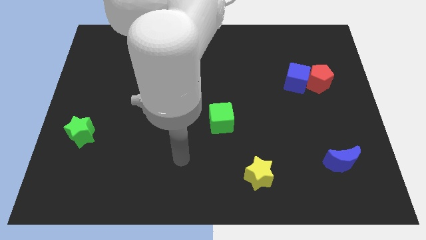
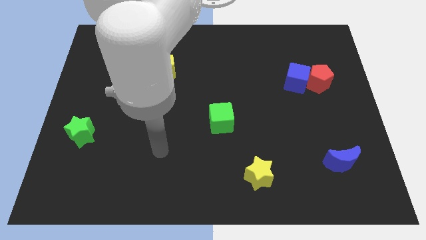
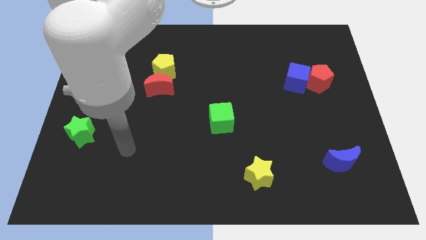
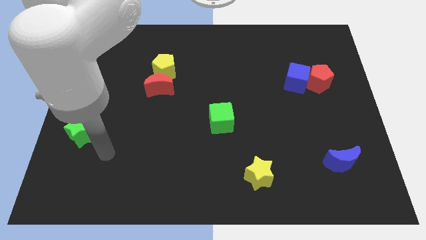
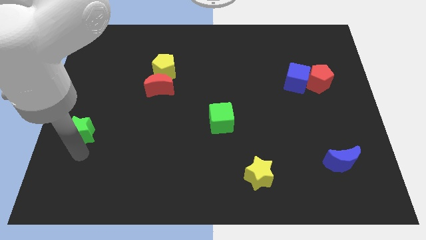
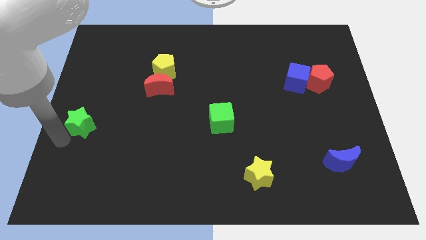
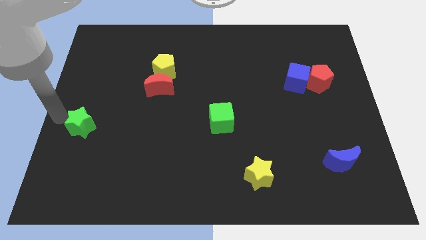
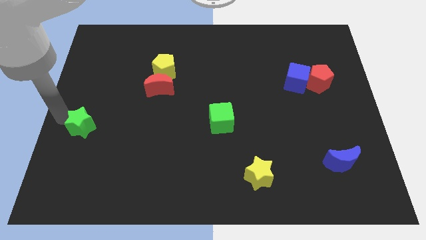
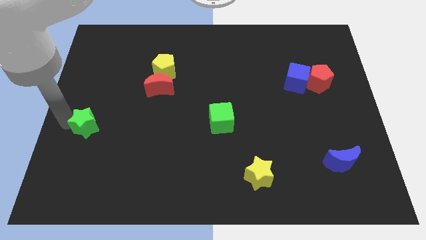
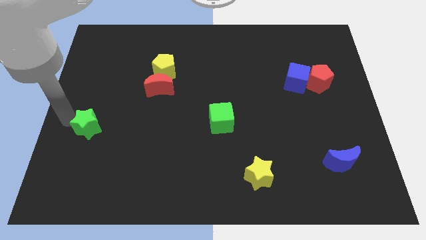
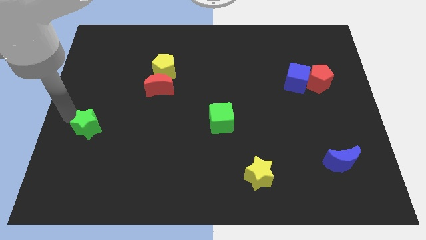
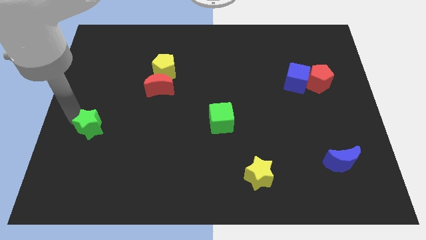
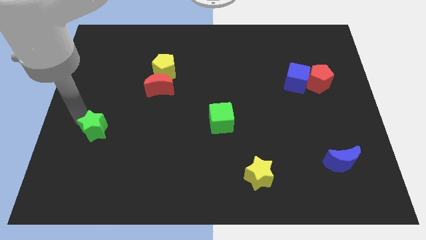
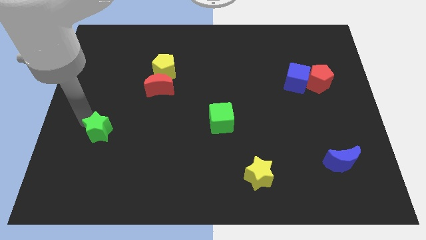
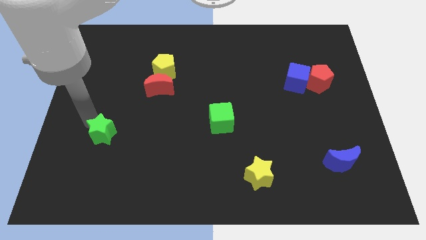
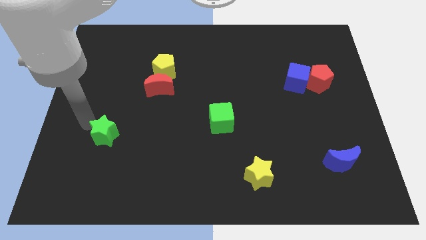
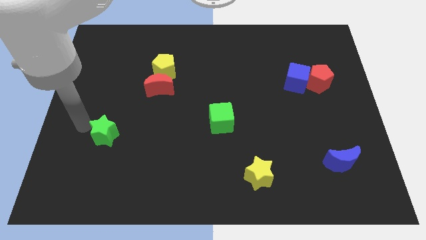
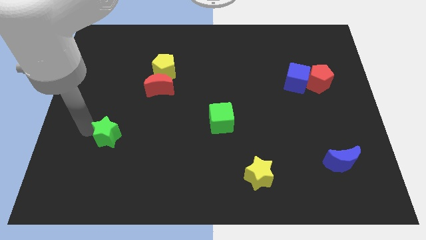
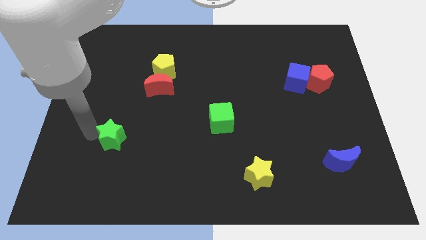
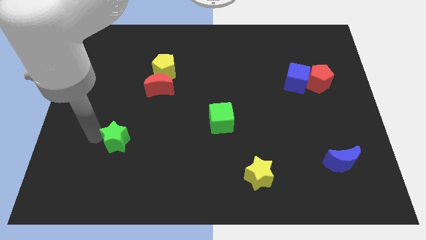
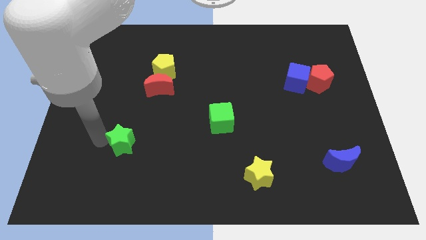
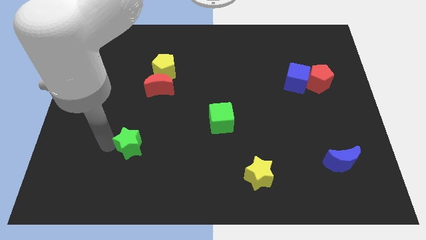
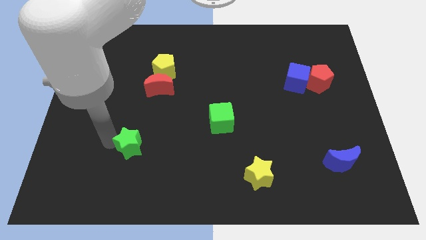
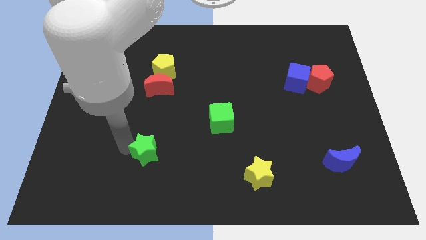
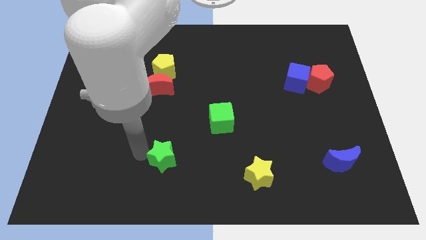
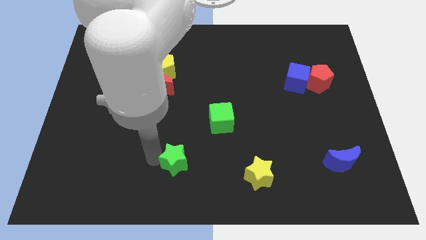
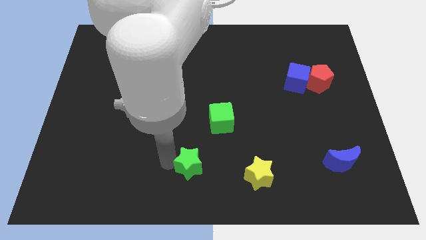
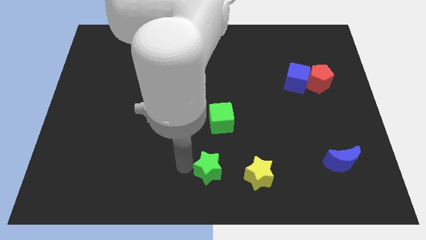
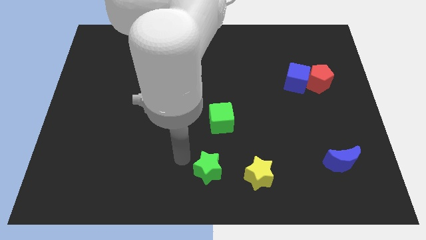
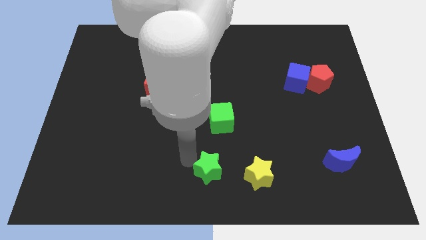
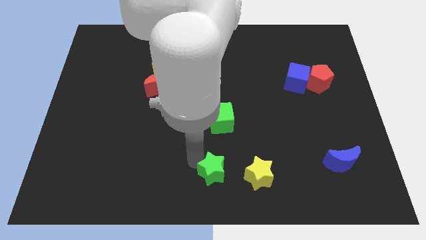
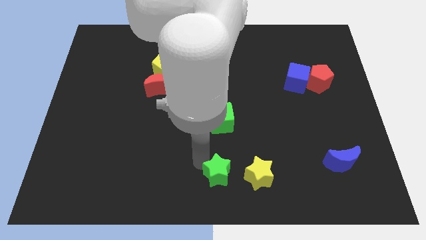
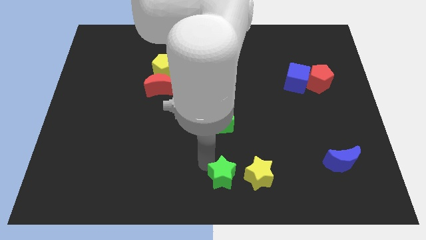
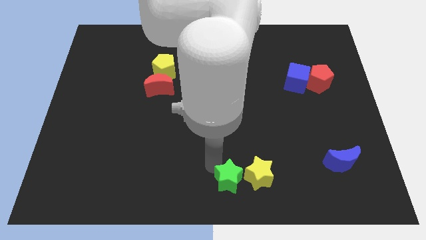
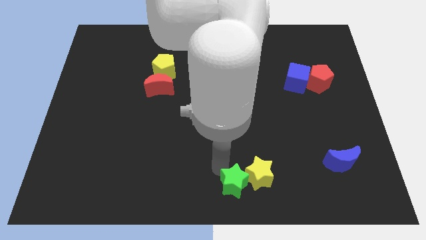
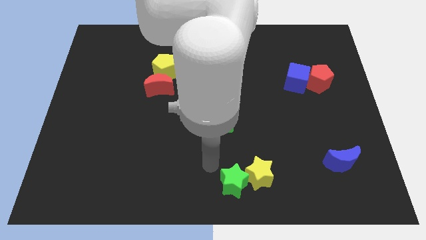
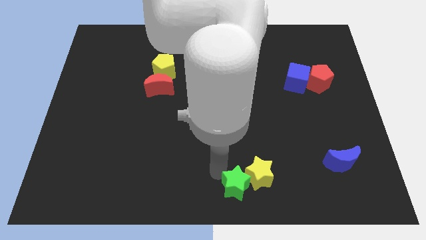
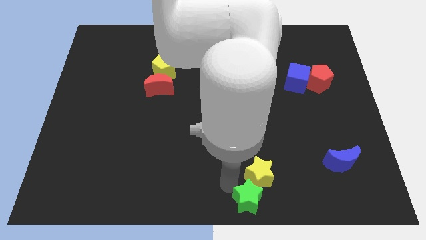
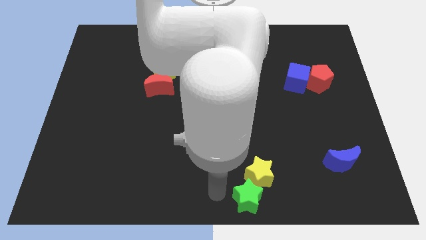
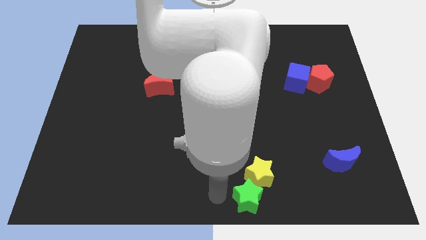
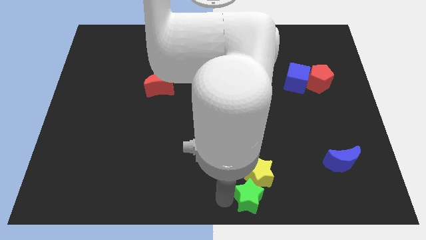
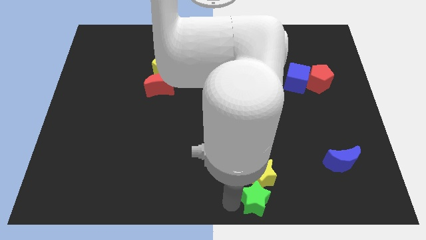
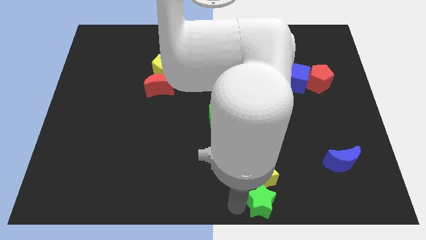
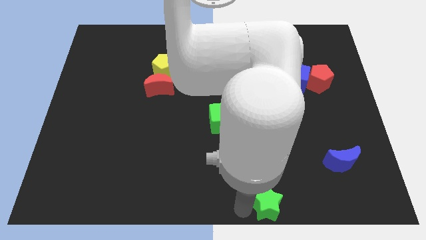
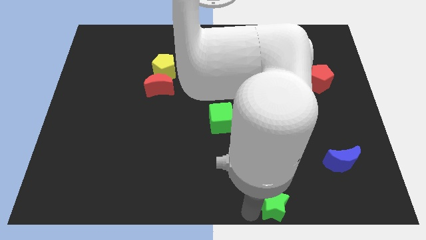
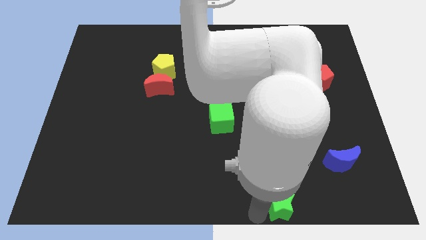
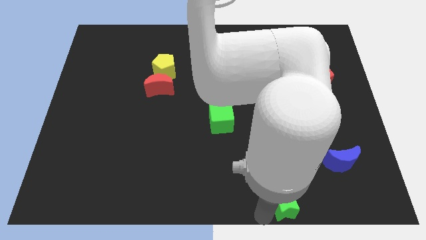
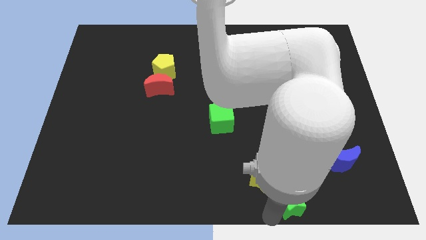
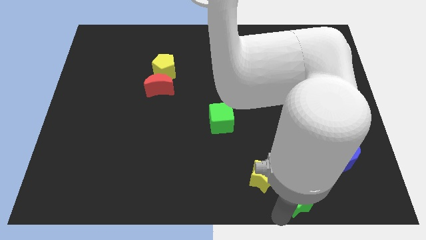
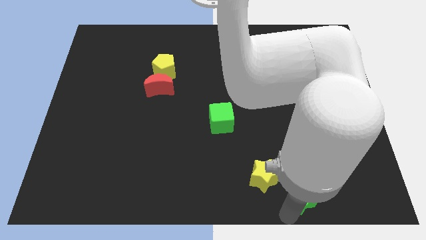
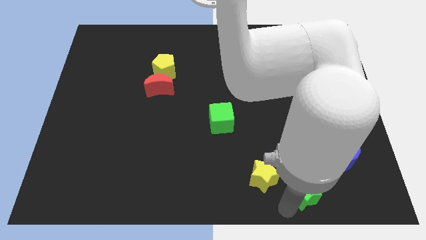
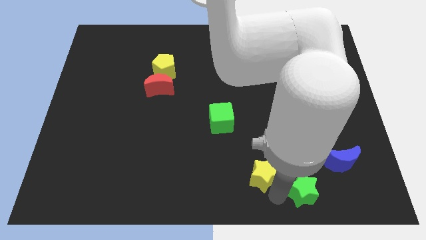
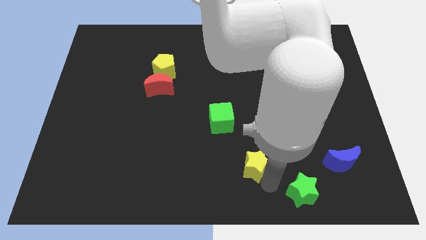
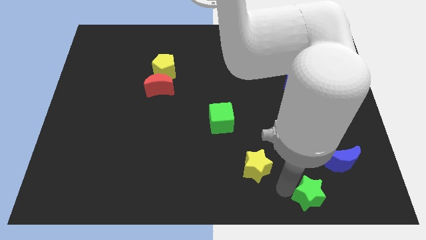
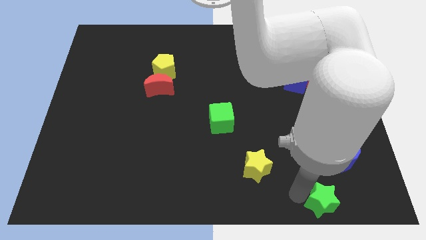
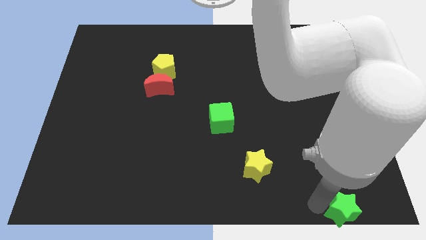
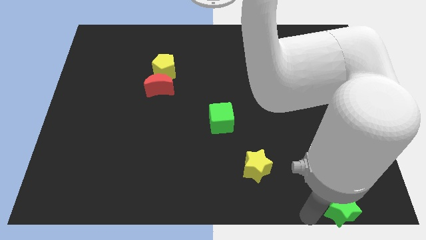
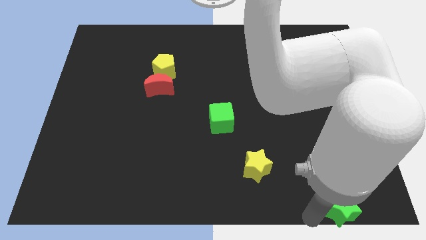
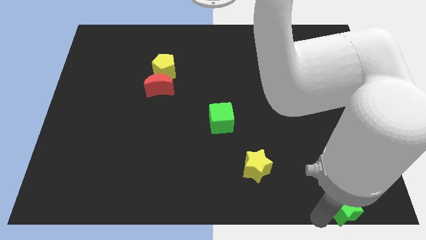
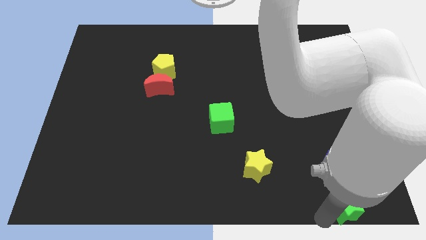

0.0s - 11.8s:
put the green star to the bottom right corner

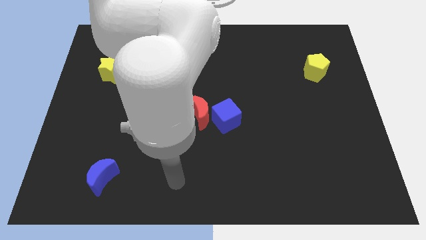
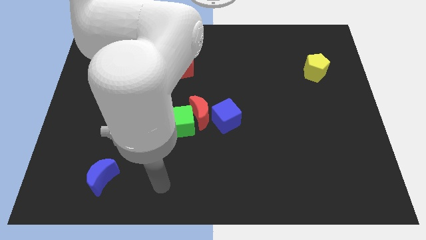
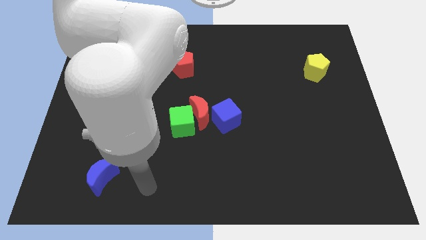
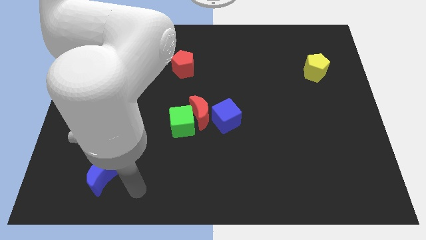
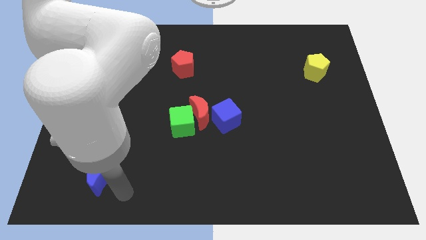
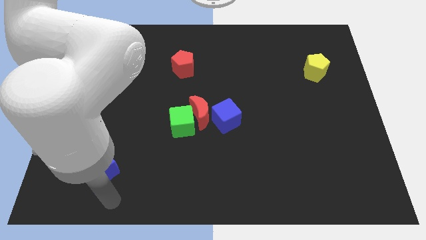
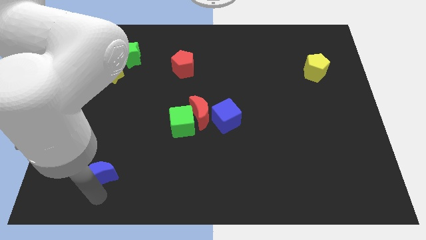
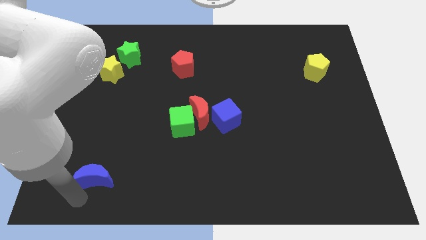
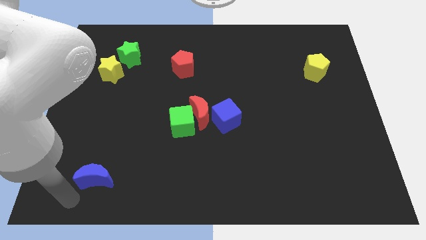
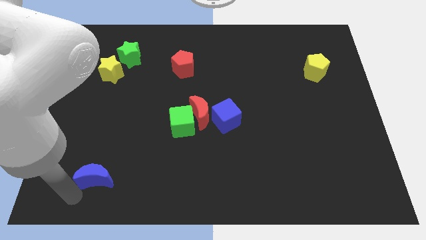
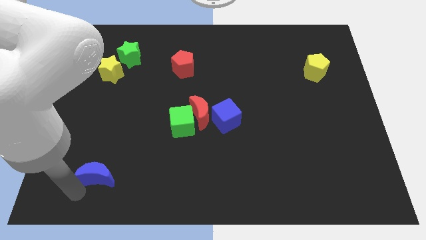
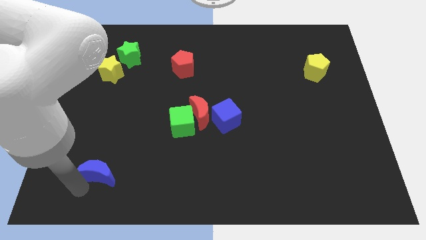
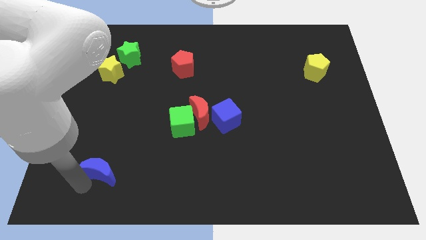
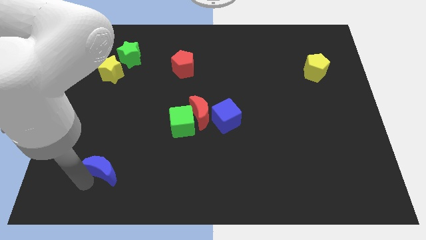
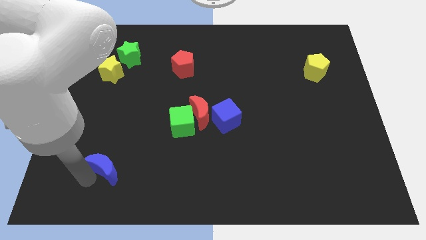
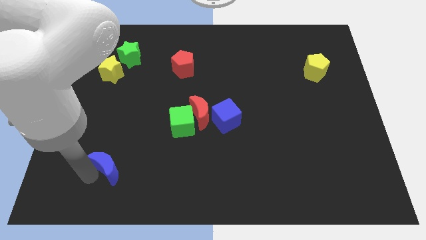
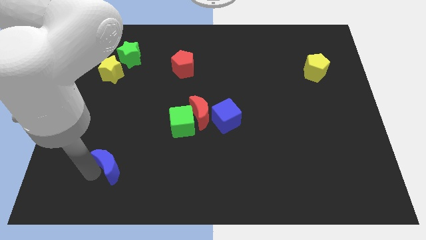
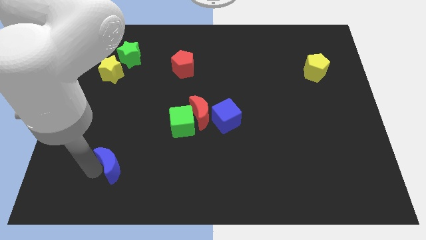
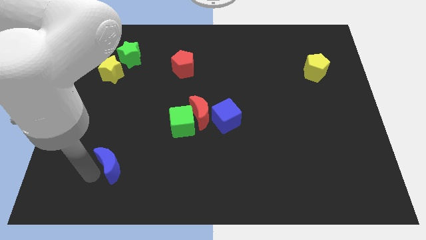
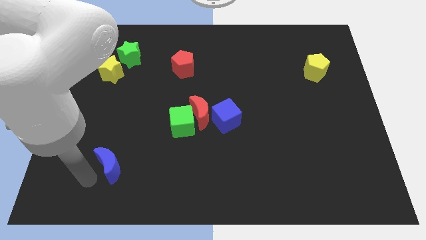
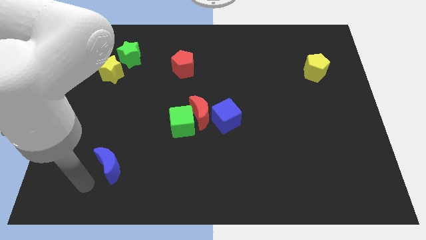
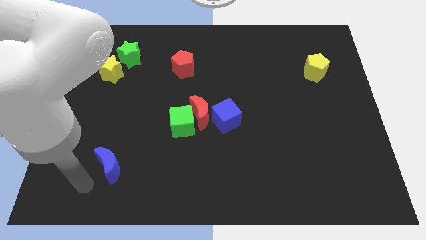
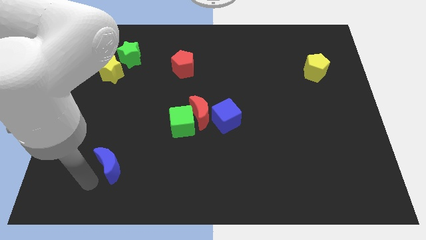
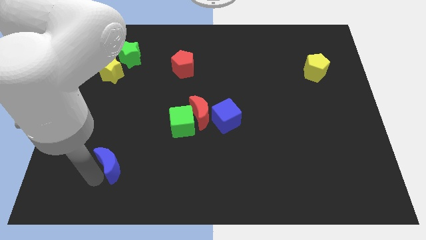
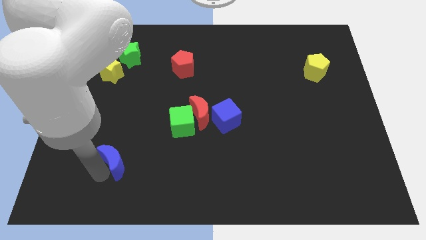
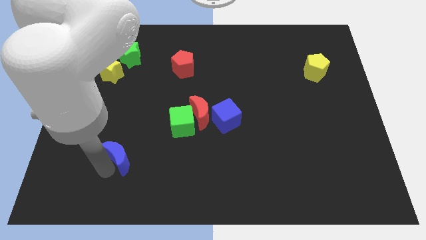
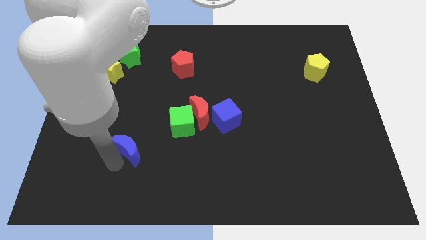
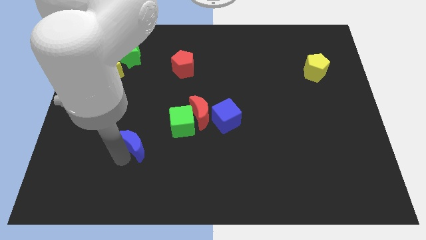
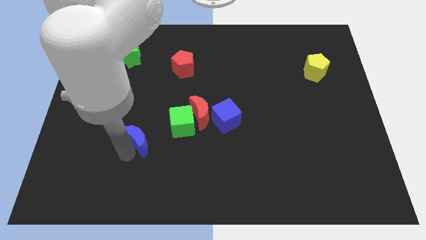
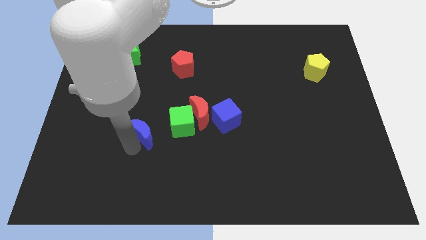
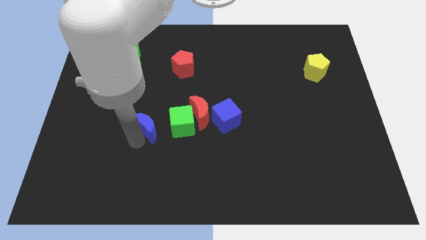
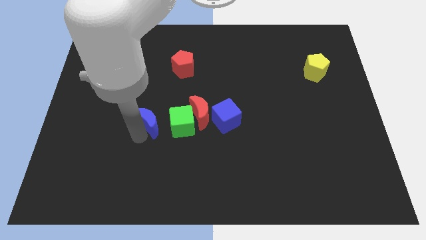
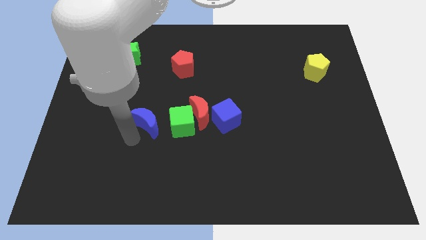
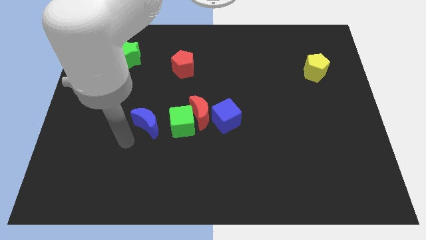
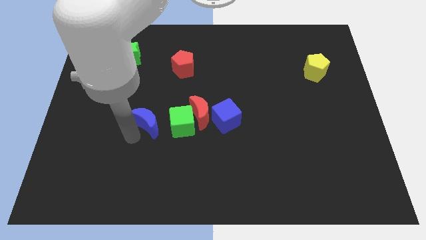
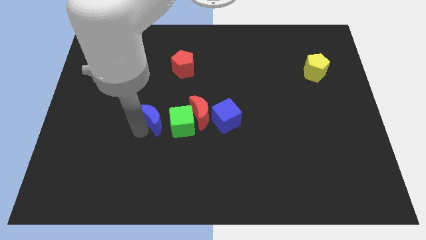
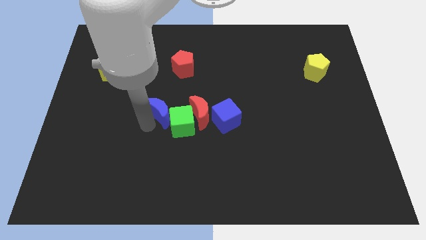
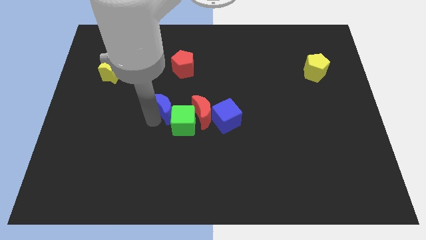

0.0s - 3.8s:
move the blue moon to the middle of the board
